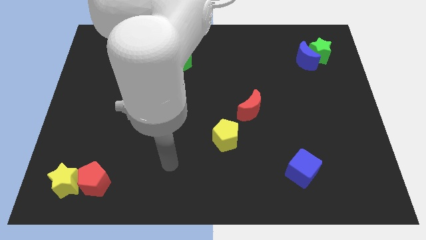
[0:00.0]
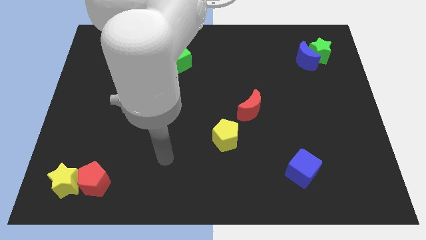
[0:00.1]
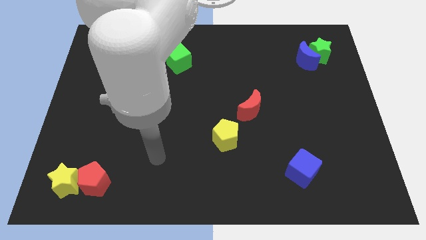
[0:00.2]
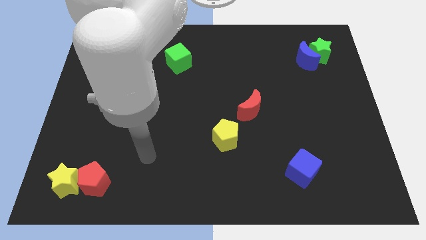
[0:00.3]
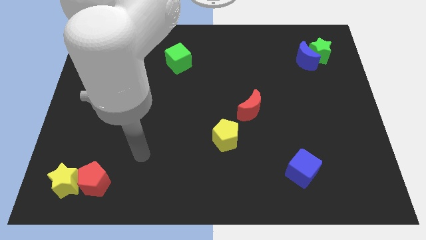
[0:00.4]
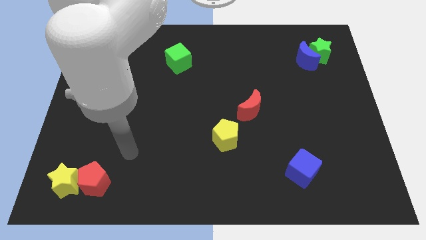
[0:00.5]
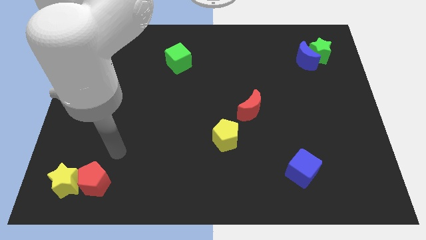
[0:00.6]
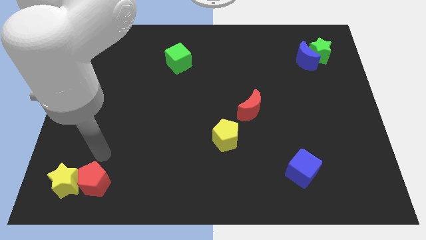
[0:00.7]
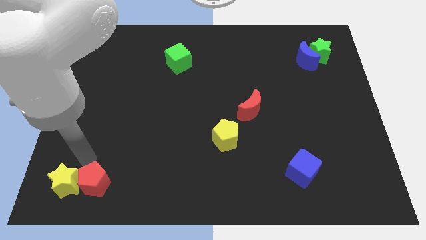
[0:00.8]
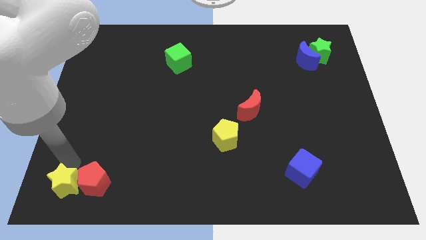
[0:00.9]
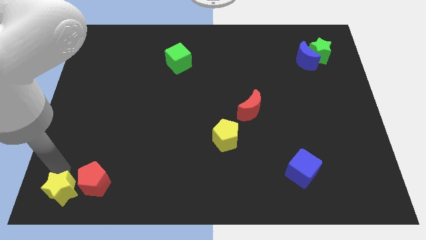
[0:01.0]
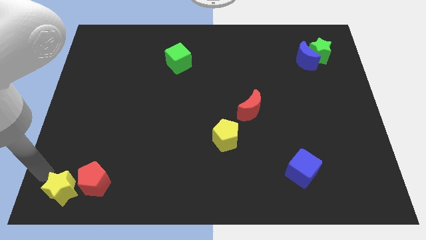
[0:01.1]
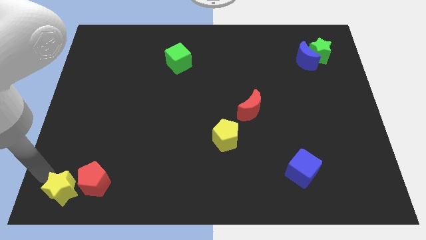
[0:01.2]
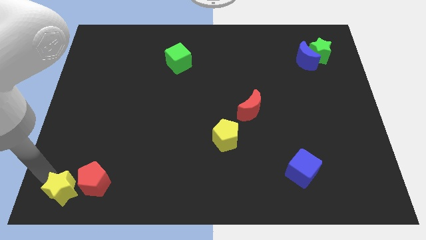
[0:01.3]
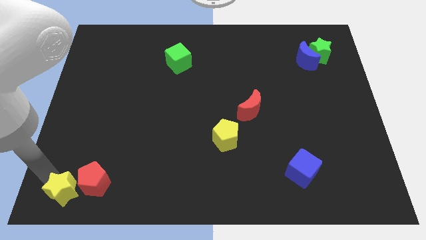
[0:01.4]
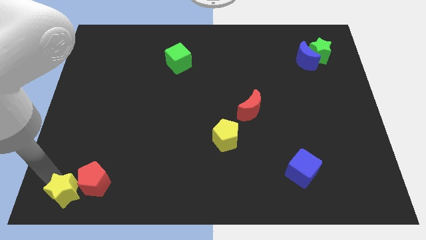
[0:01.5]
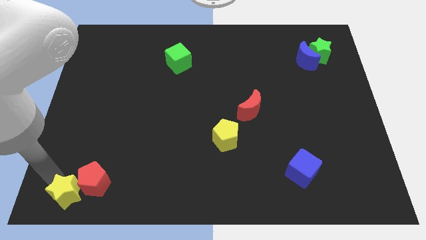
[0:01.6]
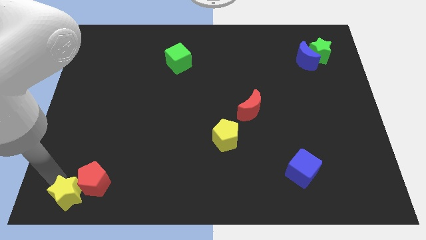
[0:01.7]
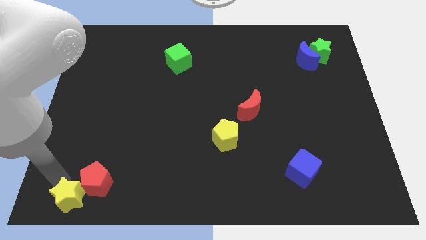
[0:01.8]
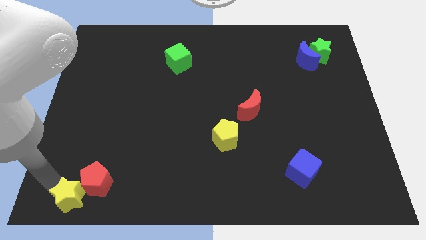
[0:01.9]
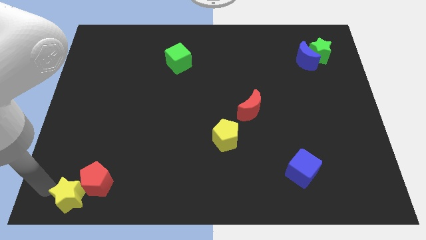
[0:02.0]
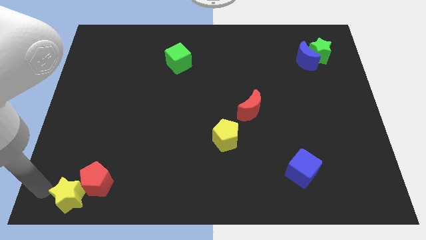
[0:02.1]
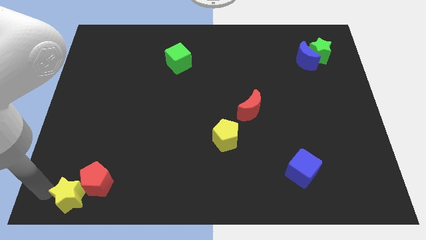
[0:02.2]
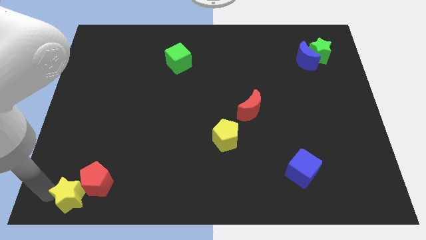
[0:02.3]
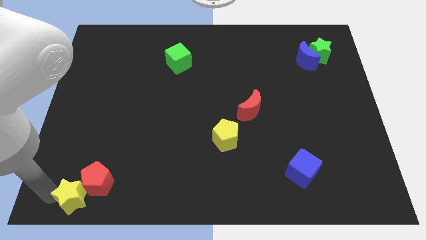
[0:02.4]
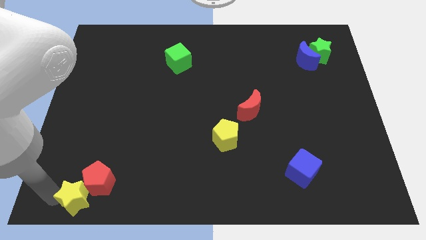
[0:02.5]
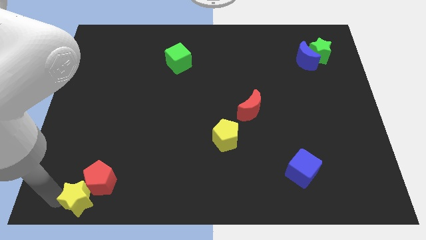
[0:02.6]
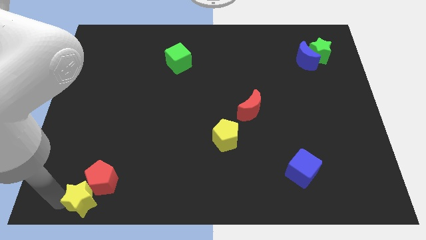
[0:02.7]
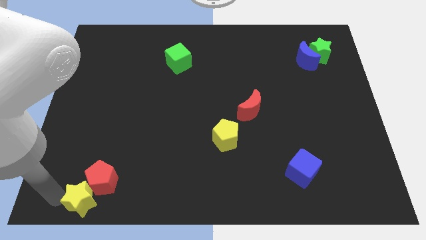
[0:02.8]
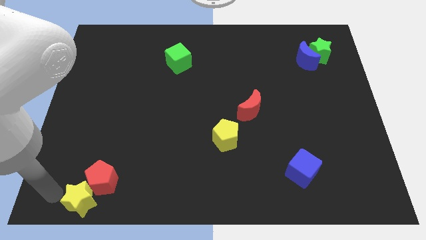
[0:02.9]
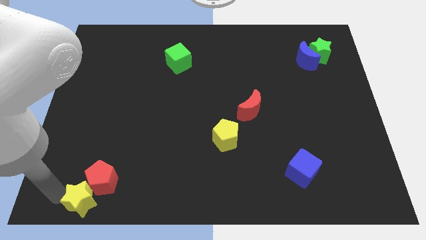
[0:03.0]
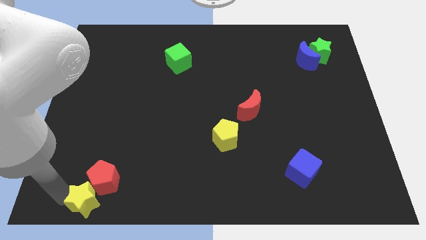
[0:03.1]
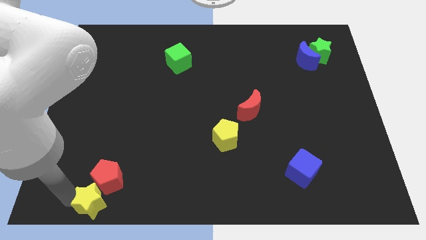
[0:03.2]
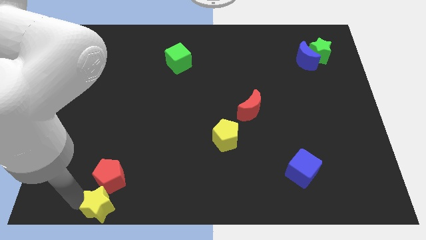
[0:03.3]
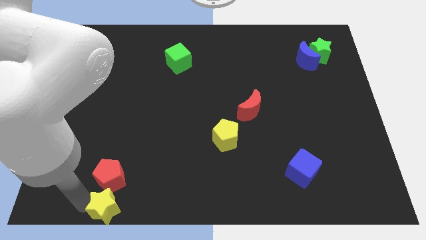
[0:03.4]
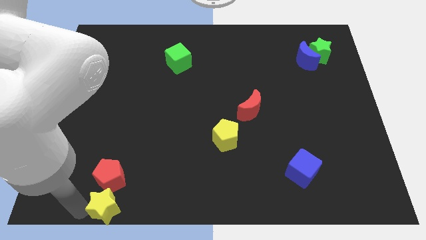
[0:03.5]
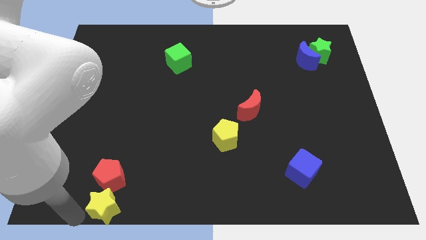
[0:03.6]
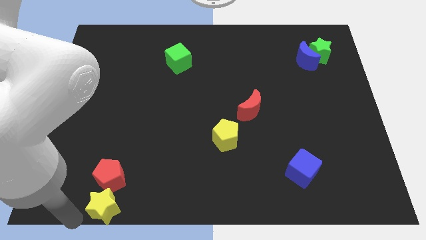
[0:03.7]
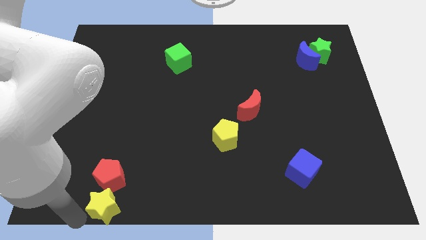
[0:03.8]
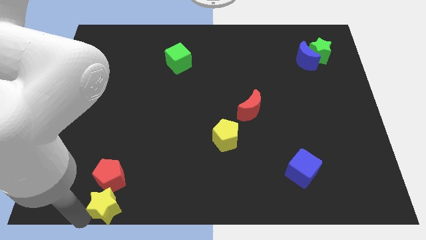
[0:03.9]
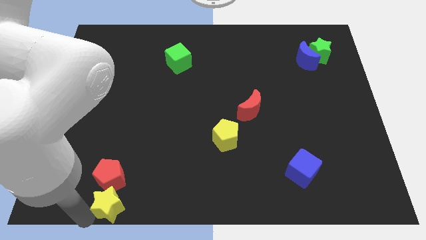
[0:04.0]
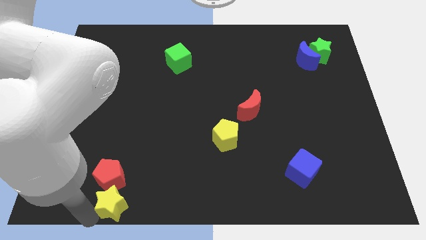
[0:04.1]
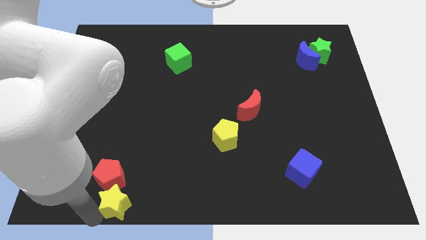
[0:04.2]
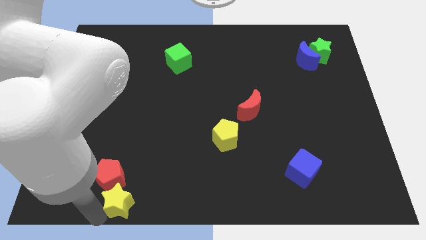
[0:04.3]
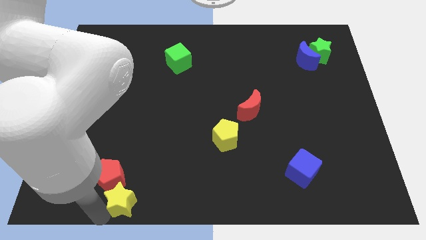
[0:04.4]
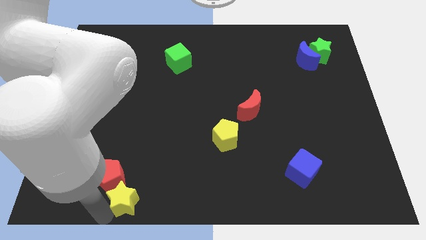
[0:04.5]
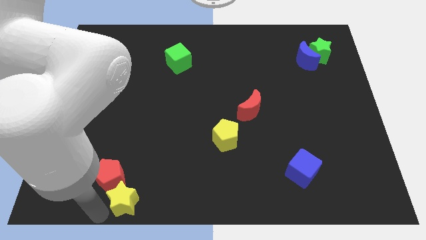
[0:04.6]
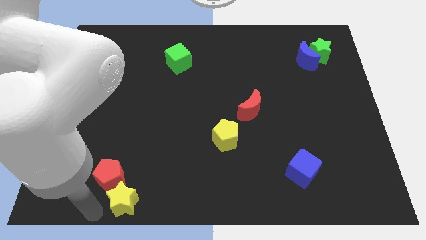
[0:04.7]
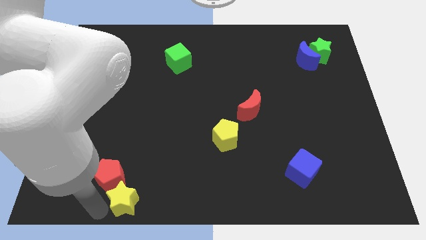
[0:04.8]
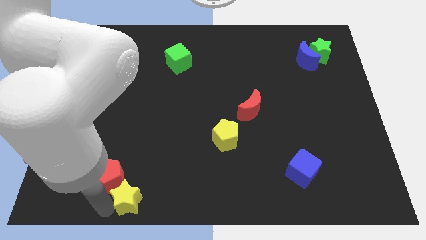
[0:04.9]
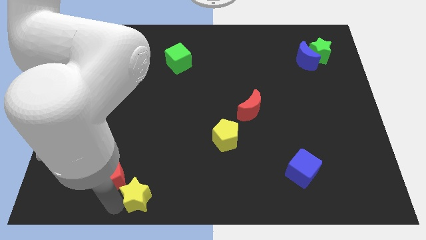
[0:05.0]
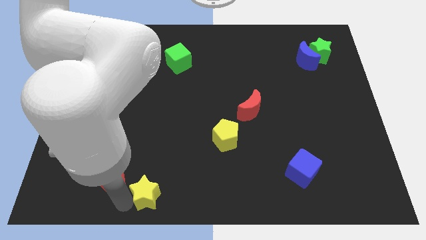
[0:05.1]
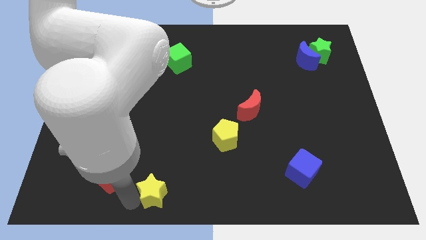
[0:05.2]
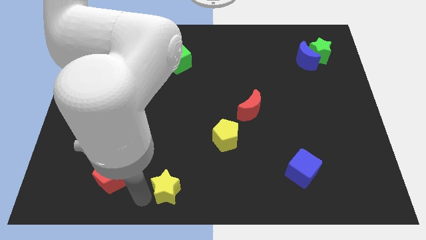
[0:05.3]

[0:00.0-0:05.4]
slide the yellow star to the right

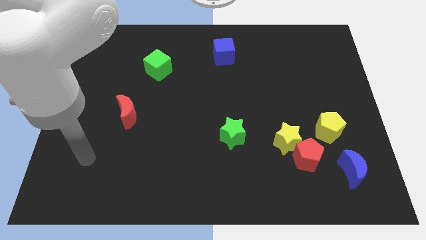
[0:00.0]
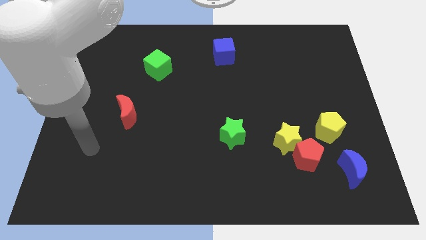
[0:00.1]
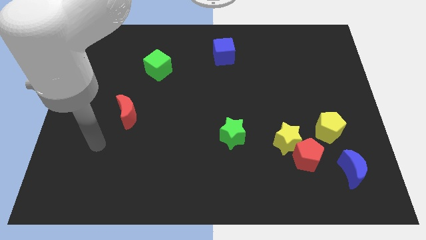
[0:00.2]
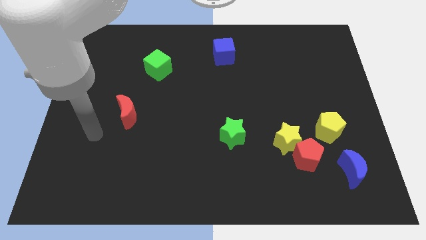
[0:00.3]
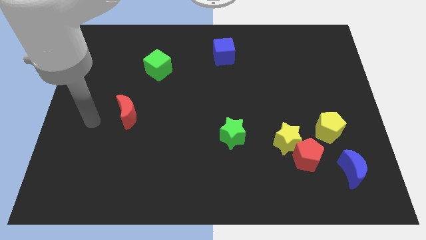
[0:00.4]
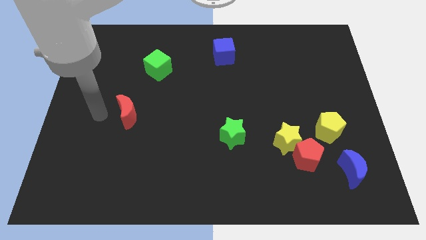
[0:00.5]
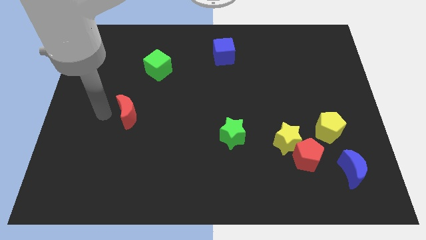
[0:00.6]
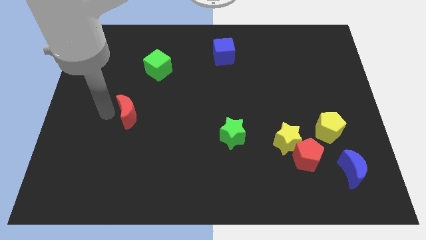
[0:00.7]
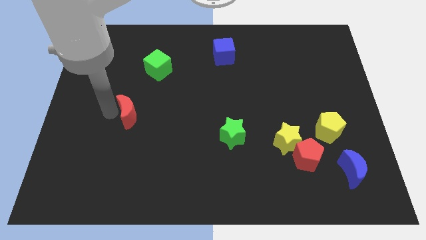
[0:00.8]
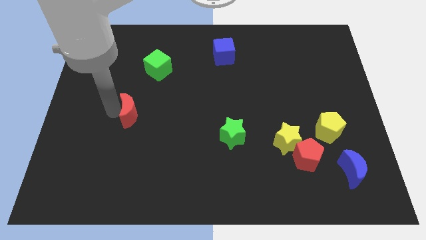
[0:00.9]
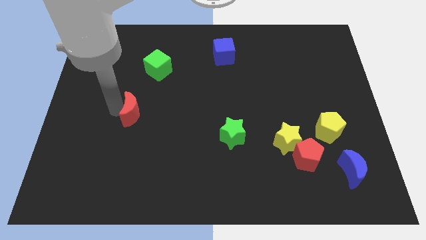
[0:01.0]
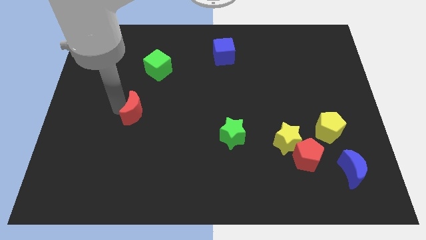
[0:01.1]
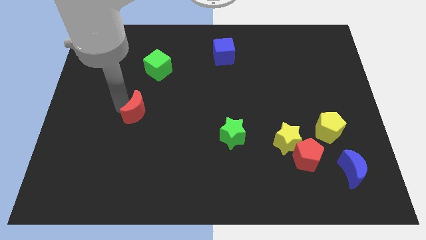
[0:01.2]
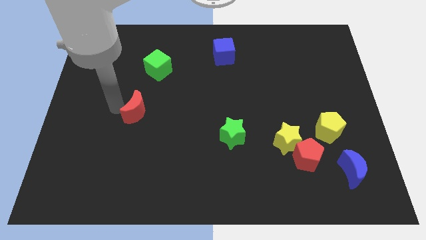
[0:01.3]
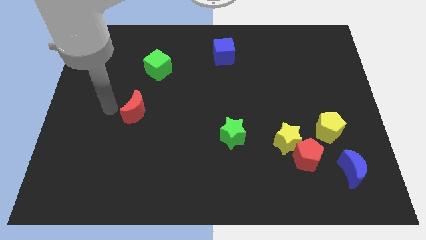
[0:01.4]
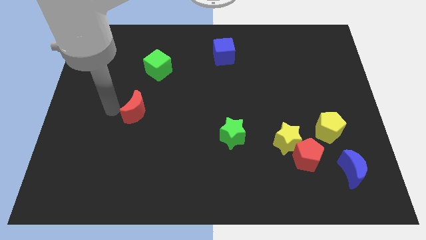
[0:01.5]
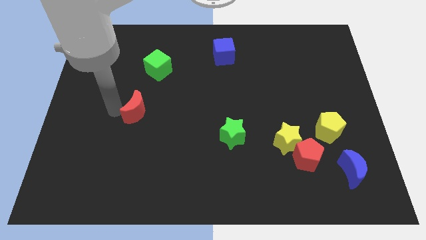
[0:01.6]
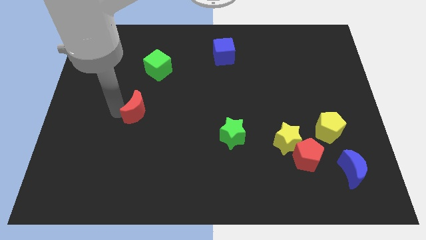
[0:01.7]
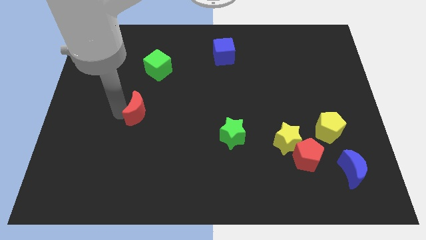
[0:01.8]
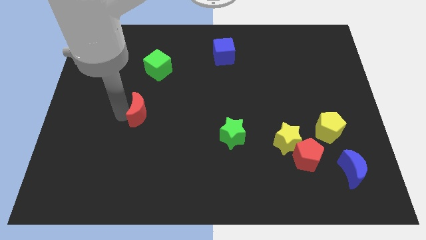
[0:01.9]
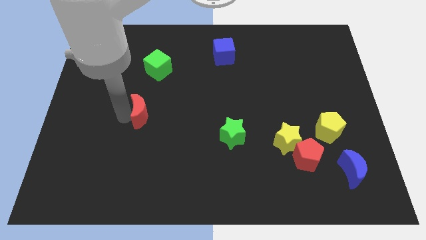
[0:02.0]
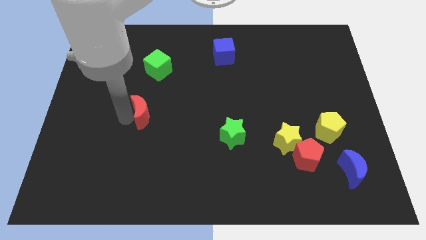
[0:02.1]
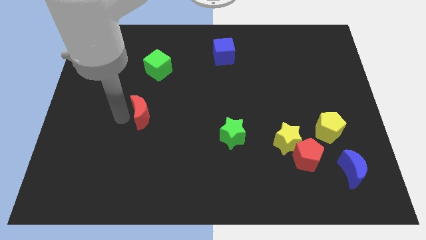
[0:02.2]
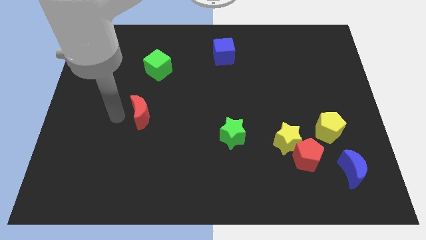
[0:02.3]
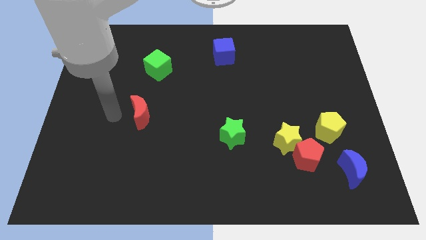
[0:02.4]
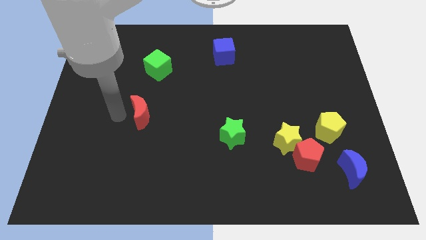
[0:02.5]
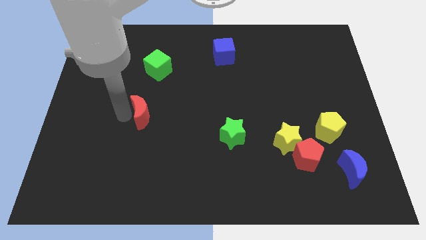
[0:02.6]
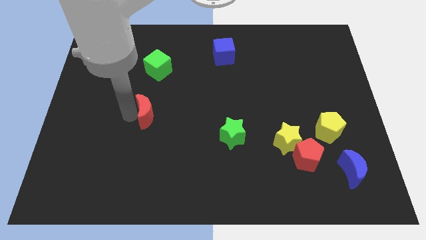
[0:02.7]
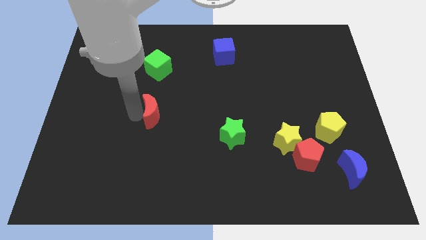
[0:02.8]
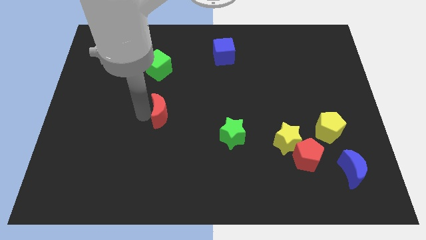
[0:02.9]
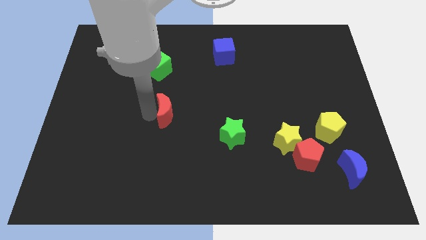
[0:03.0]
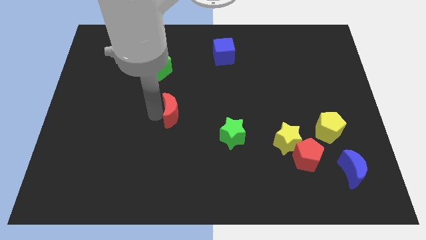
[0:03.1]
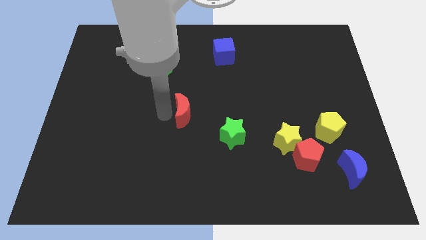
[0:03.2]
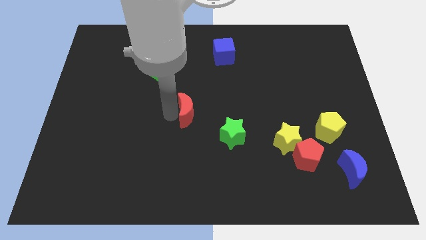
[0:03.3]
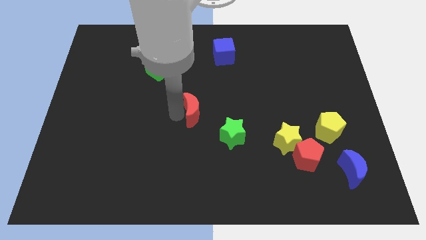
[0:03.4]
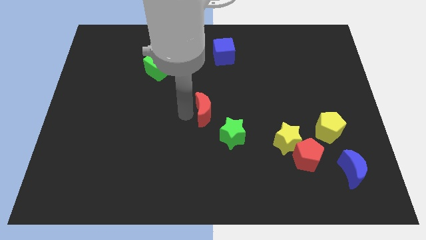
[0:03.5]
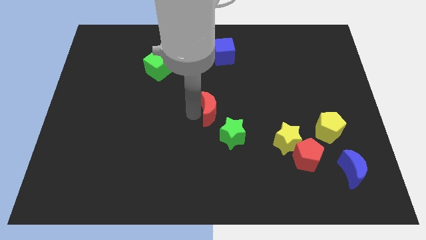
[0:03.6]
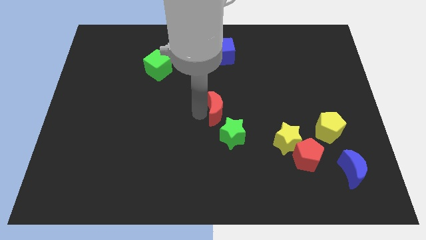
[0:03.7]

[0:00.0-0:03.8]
push the red moon right
